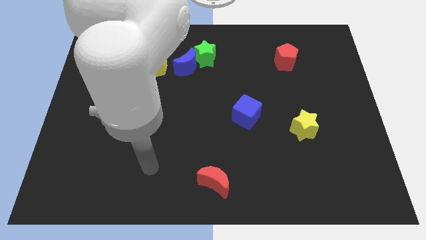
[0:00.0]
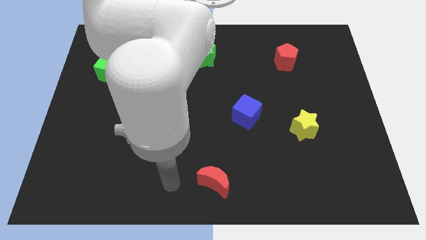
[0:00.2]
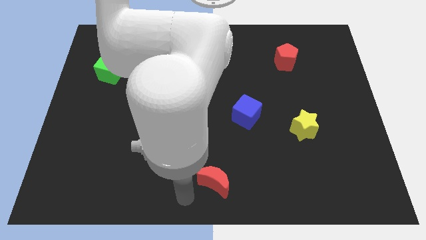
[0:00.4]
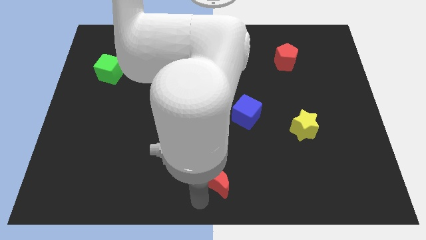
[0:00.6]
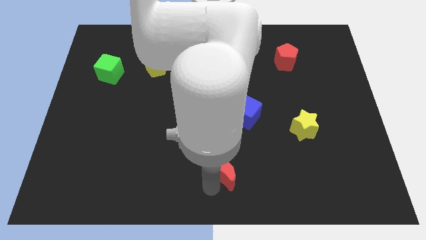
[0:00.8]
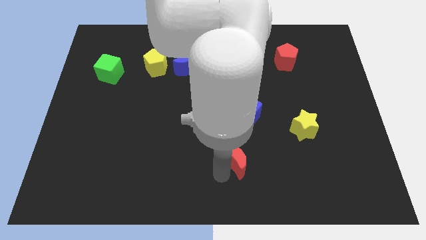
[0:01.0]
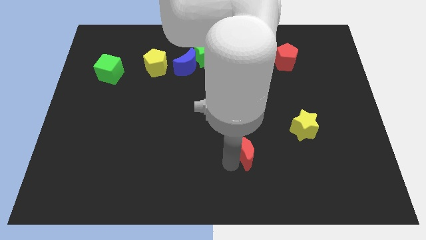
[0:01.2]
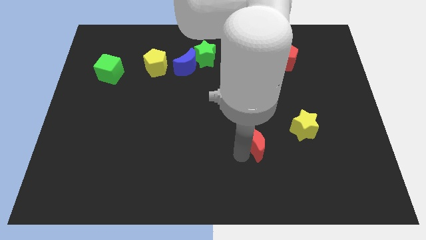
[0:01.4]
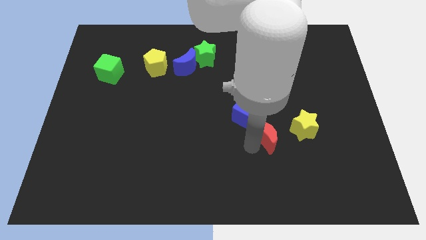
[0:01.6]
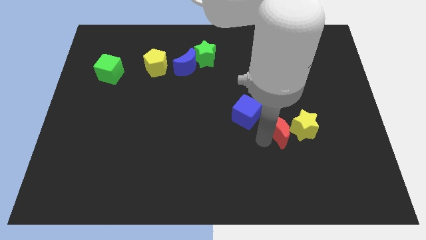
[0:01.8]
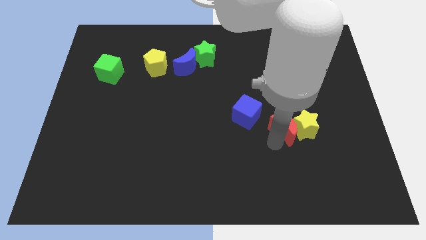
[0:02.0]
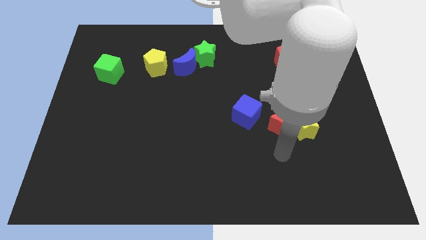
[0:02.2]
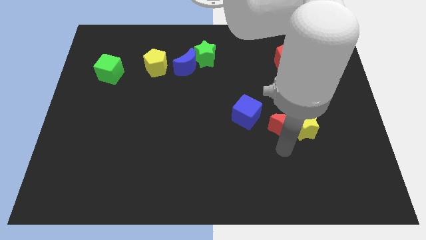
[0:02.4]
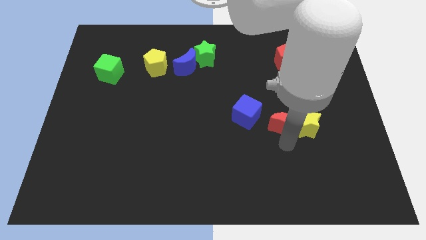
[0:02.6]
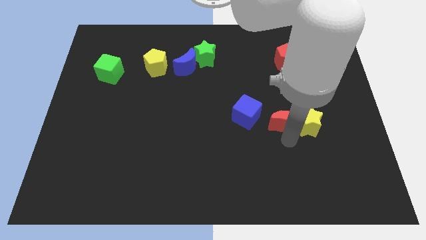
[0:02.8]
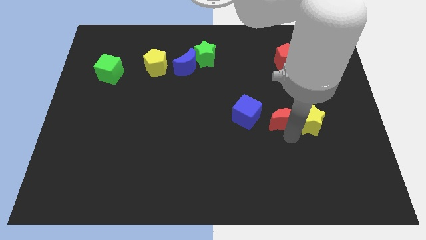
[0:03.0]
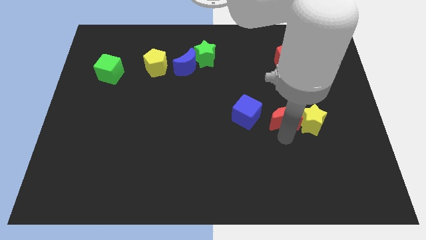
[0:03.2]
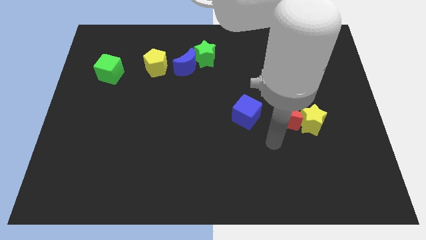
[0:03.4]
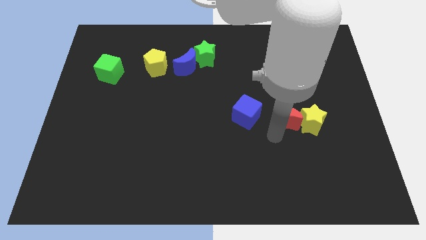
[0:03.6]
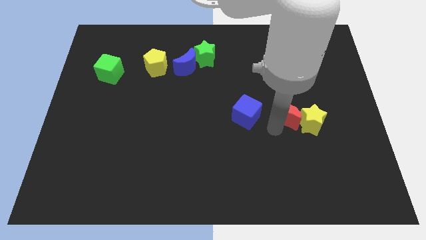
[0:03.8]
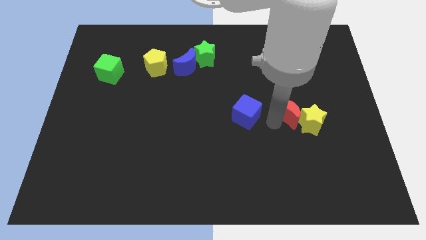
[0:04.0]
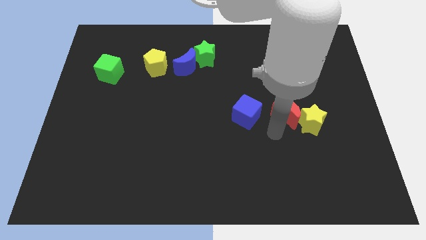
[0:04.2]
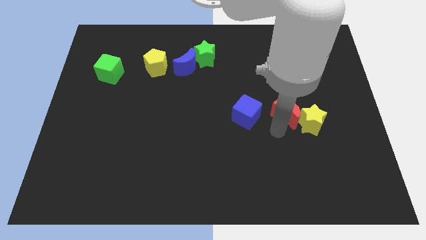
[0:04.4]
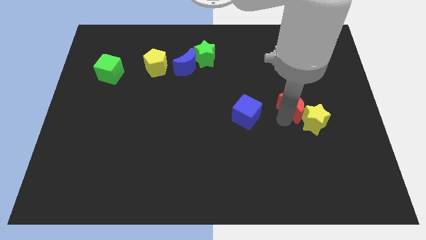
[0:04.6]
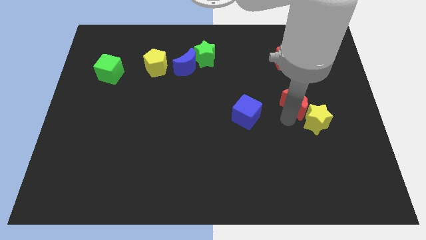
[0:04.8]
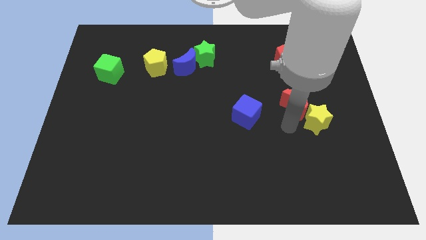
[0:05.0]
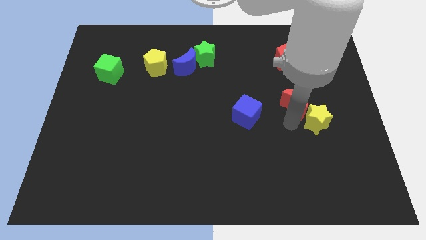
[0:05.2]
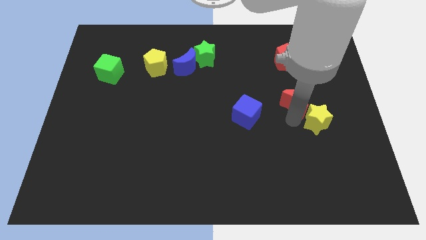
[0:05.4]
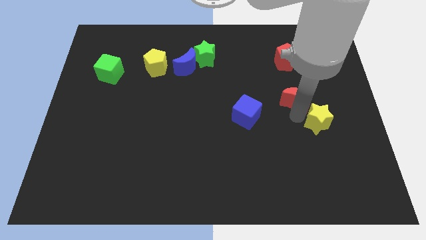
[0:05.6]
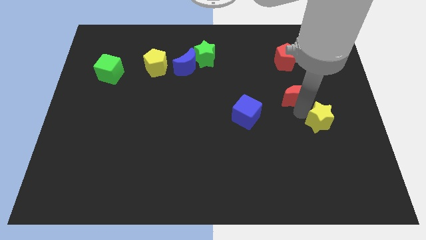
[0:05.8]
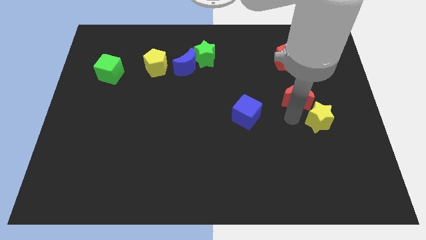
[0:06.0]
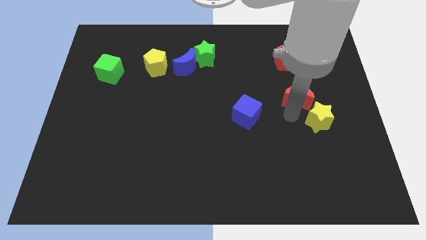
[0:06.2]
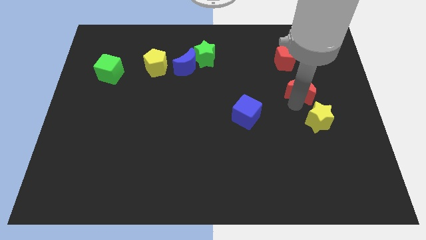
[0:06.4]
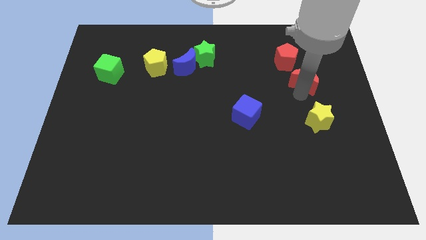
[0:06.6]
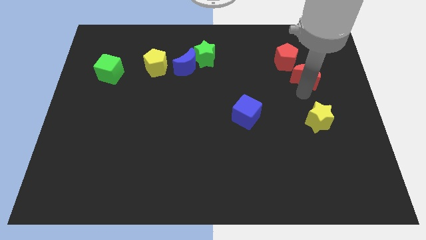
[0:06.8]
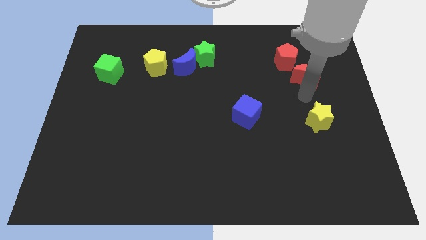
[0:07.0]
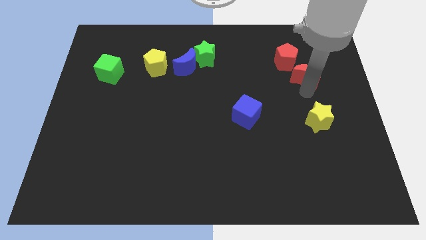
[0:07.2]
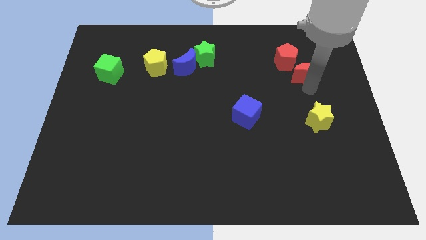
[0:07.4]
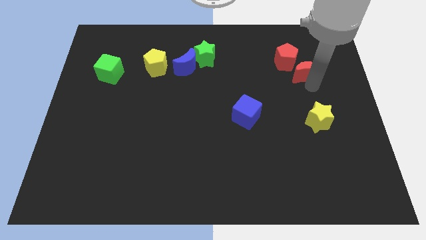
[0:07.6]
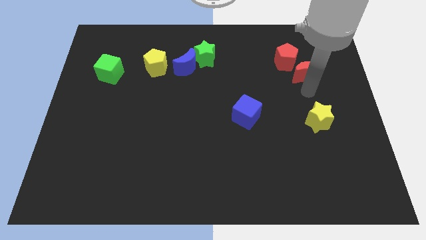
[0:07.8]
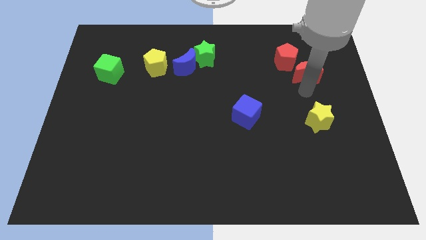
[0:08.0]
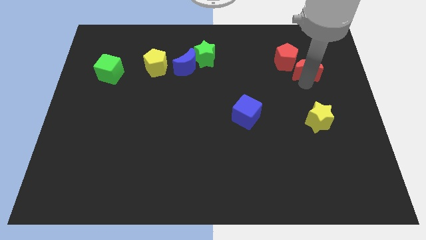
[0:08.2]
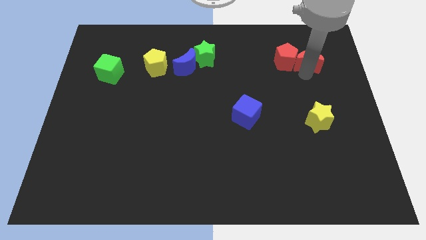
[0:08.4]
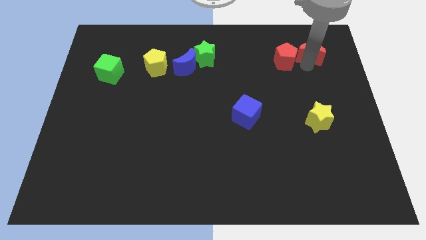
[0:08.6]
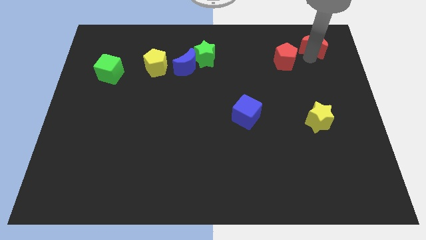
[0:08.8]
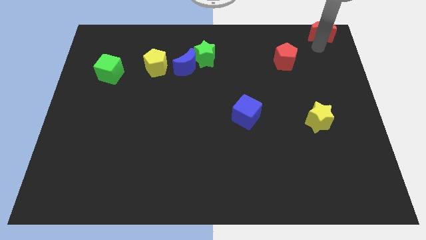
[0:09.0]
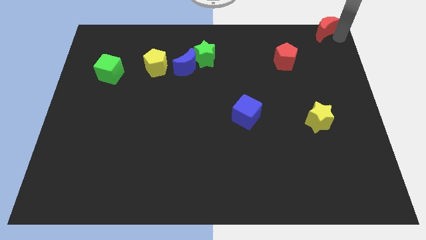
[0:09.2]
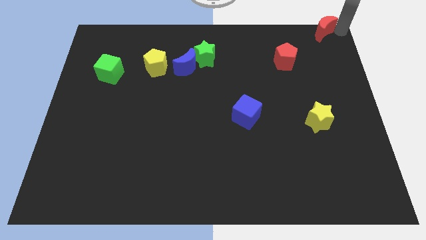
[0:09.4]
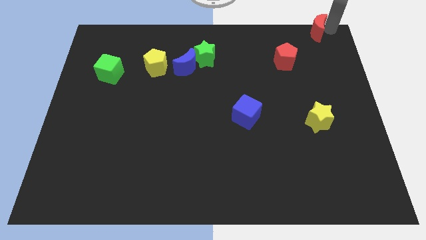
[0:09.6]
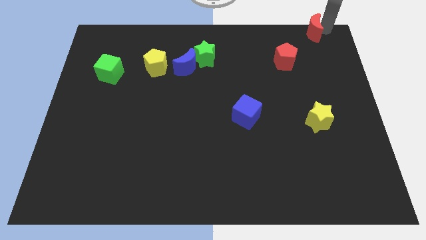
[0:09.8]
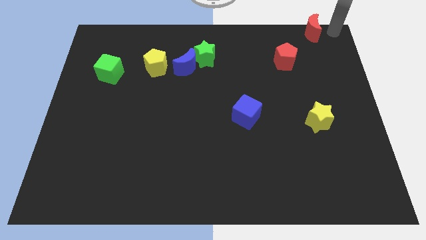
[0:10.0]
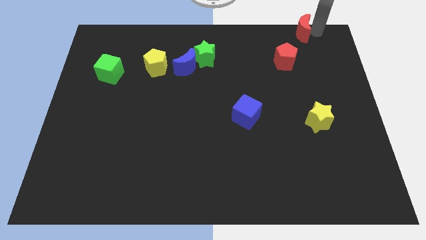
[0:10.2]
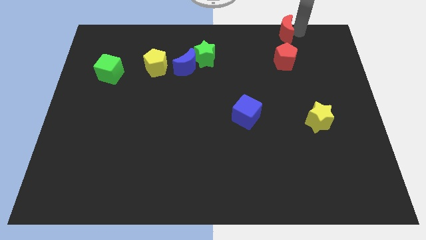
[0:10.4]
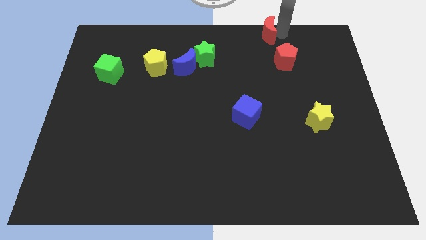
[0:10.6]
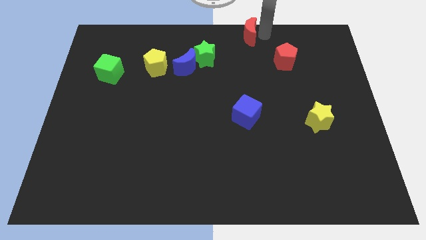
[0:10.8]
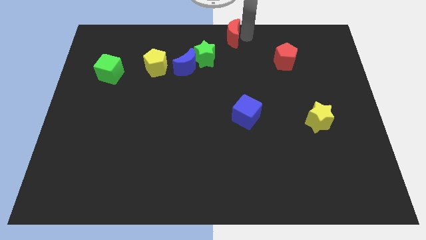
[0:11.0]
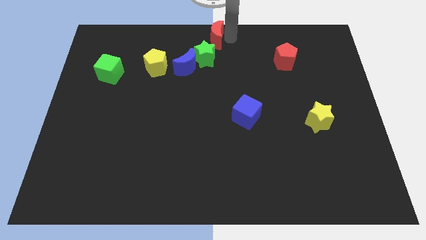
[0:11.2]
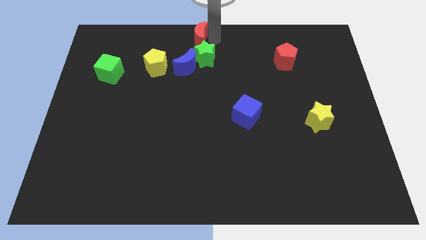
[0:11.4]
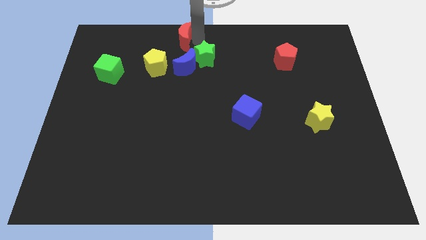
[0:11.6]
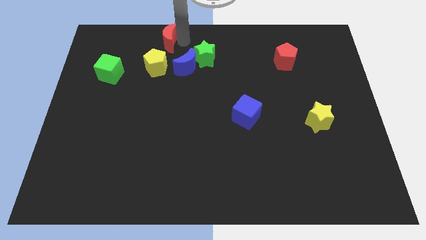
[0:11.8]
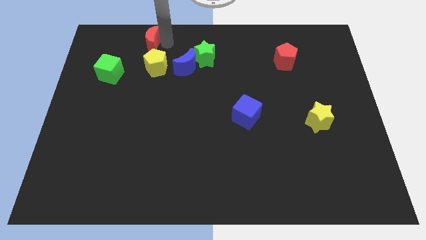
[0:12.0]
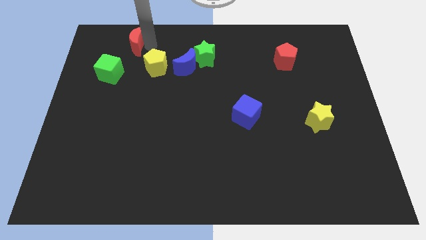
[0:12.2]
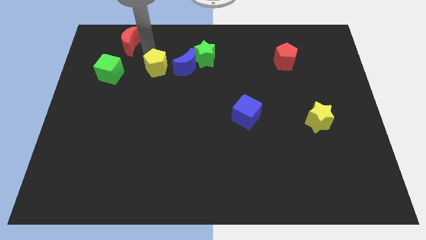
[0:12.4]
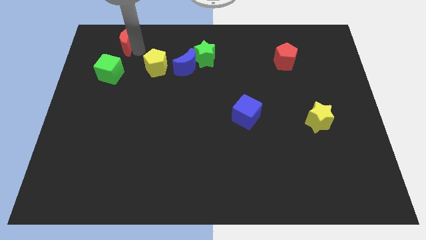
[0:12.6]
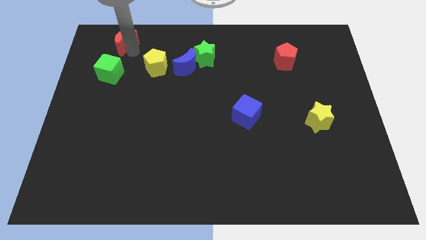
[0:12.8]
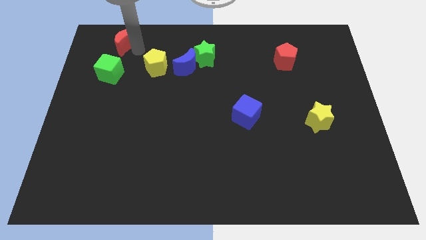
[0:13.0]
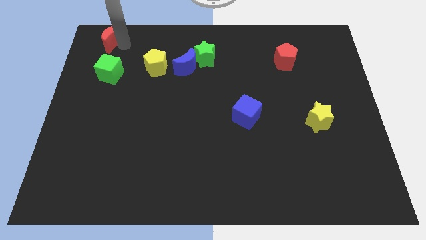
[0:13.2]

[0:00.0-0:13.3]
slide the red moon to the top left corner

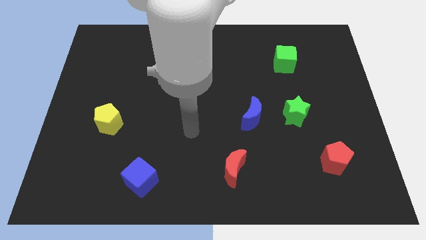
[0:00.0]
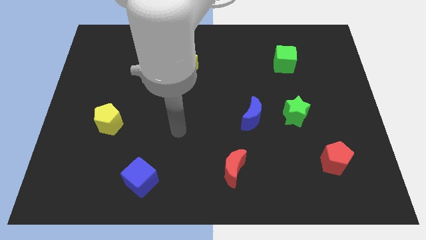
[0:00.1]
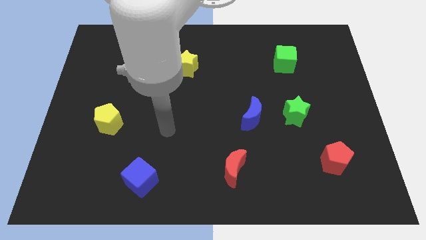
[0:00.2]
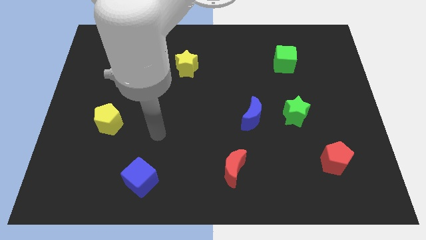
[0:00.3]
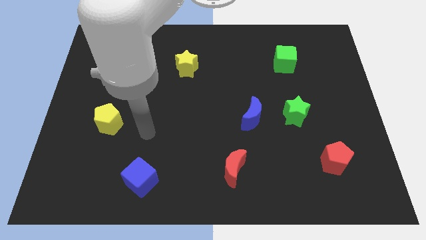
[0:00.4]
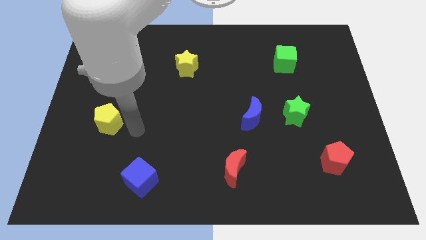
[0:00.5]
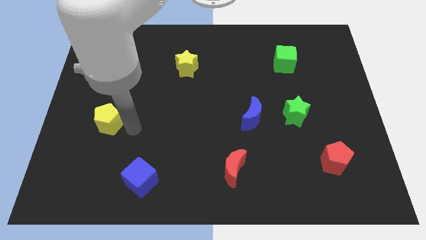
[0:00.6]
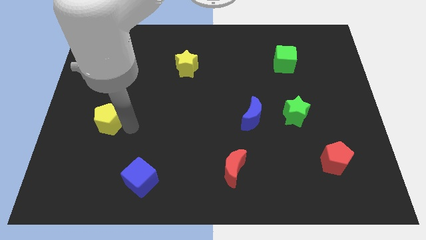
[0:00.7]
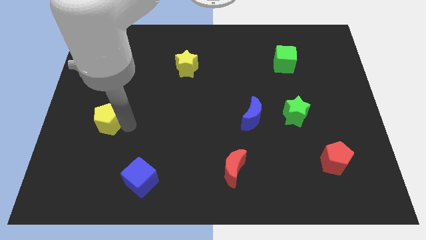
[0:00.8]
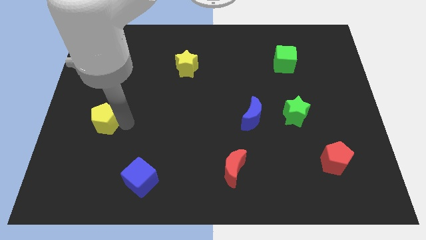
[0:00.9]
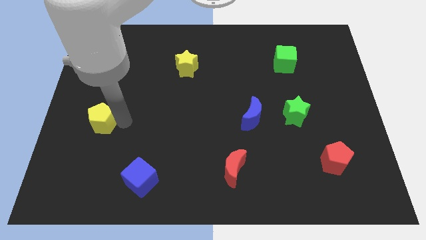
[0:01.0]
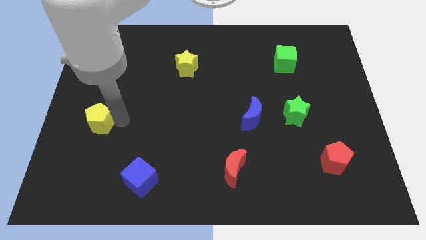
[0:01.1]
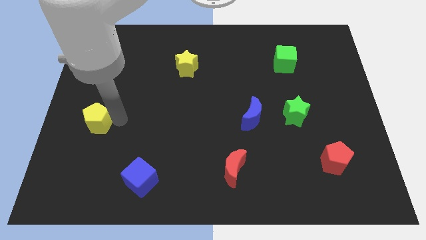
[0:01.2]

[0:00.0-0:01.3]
put the yellow pentagon to the left side
